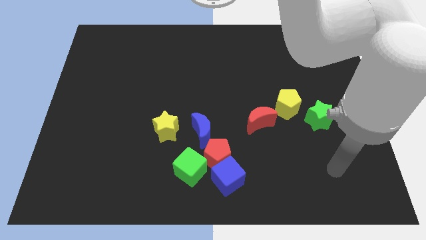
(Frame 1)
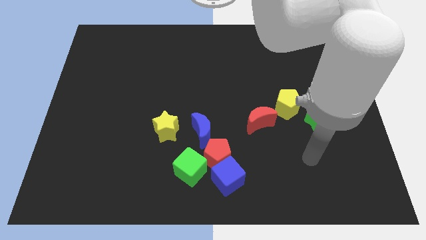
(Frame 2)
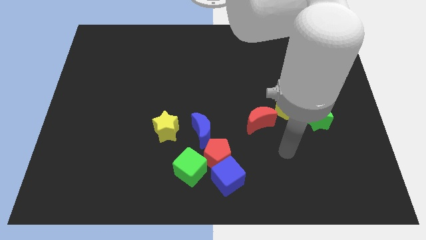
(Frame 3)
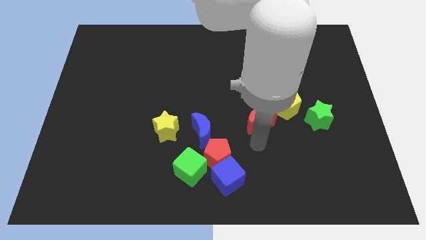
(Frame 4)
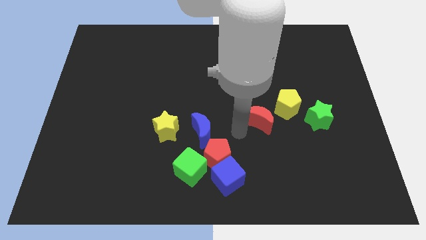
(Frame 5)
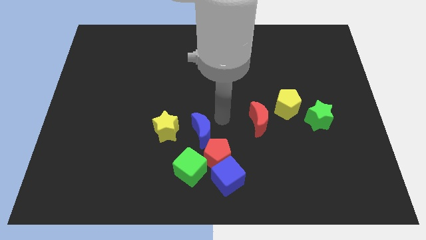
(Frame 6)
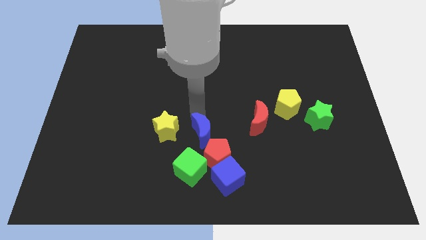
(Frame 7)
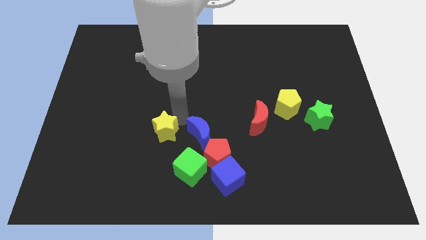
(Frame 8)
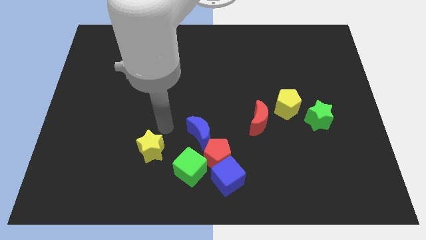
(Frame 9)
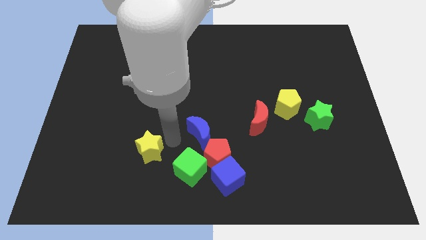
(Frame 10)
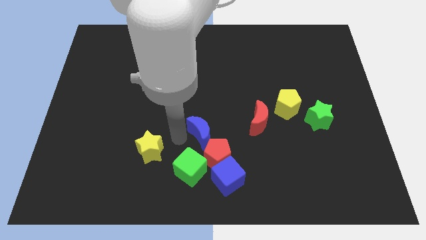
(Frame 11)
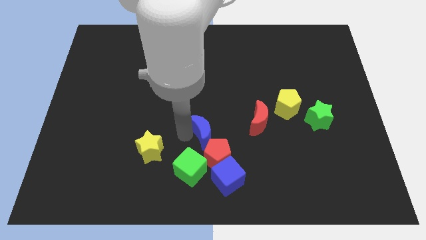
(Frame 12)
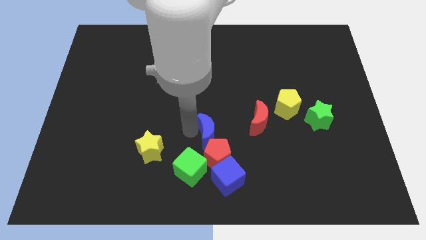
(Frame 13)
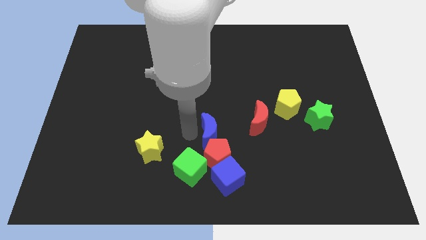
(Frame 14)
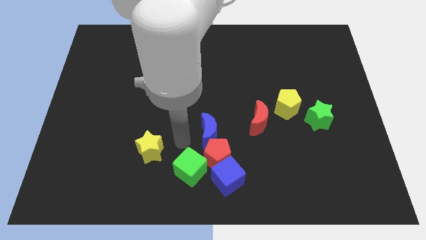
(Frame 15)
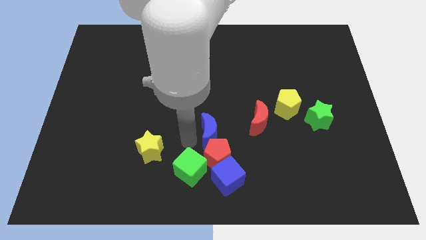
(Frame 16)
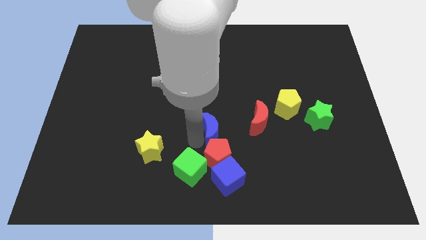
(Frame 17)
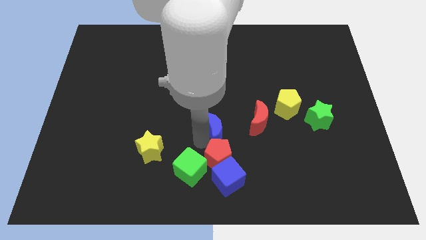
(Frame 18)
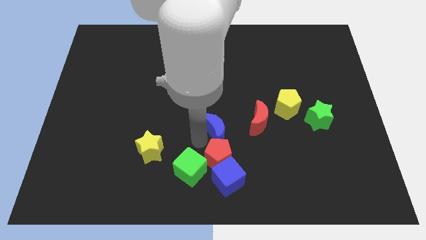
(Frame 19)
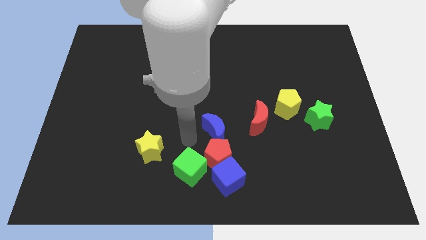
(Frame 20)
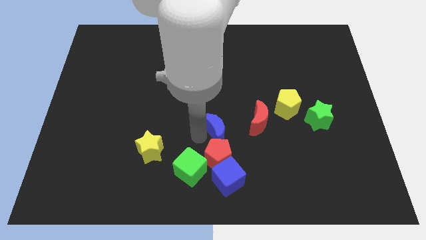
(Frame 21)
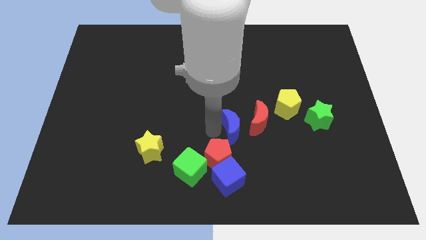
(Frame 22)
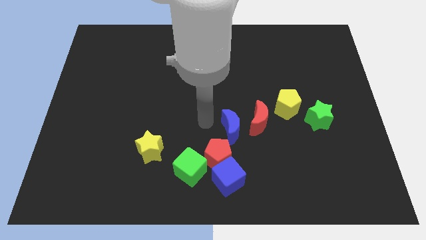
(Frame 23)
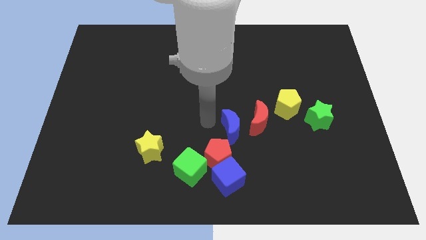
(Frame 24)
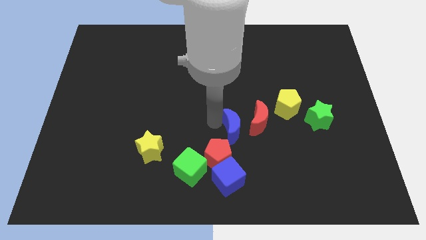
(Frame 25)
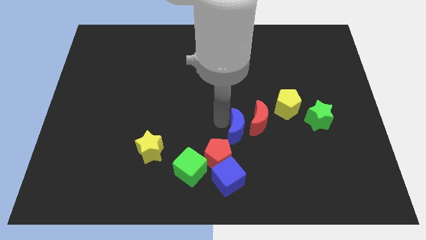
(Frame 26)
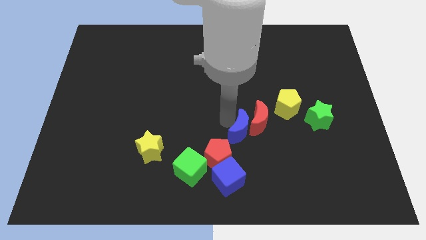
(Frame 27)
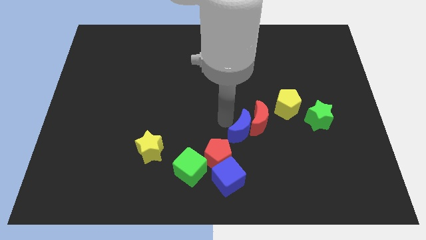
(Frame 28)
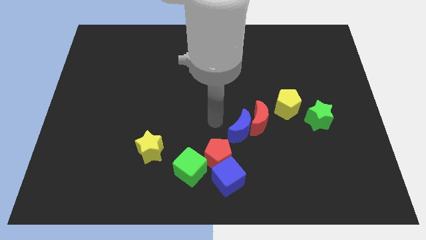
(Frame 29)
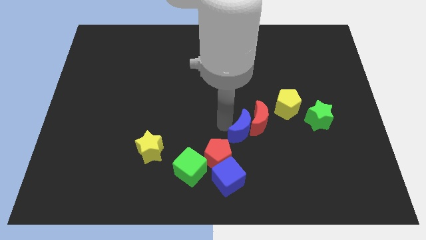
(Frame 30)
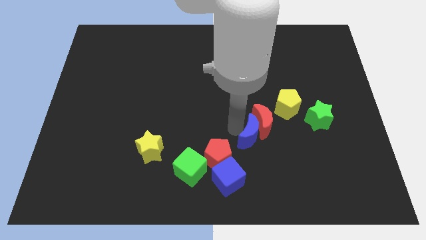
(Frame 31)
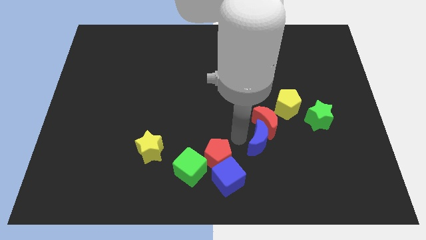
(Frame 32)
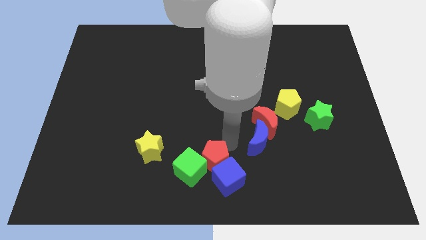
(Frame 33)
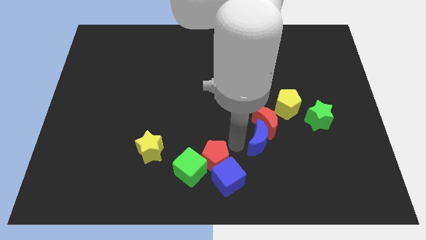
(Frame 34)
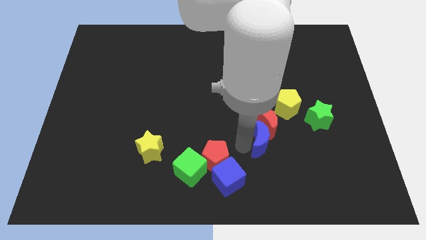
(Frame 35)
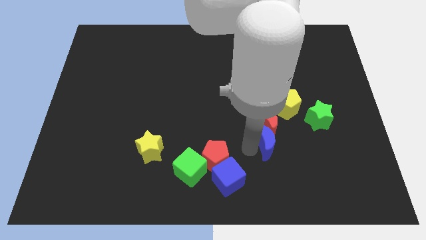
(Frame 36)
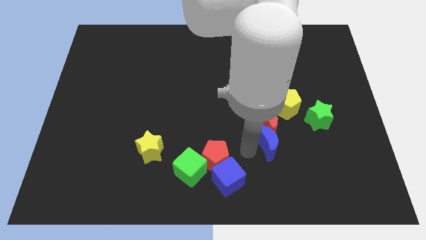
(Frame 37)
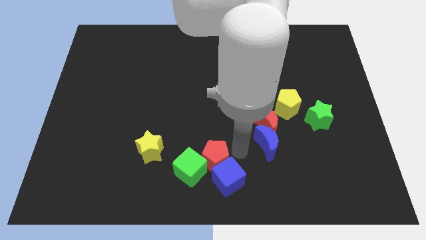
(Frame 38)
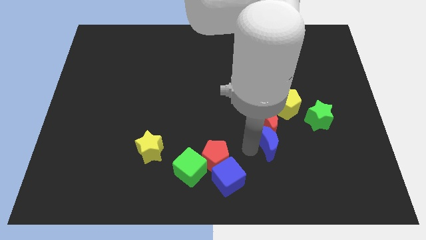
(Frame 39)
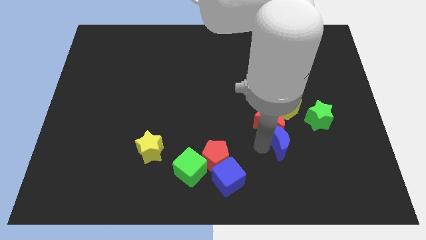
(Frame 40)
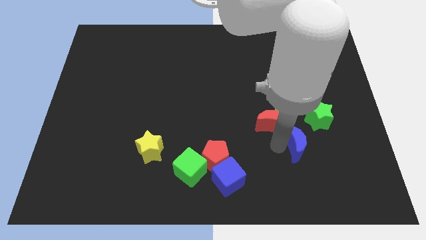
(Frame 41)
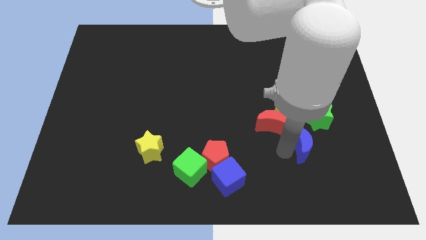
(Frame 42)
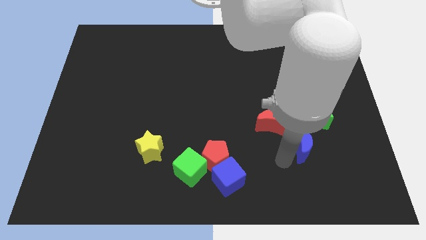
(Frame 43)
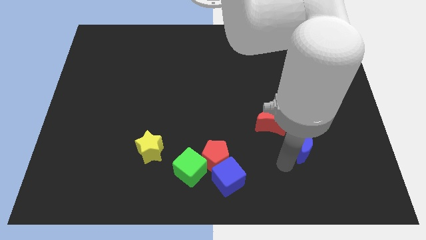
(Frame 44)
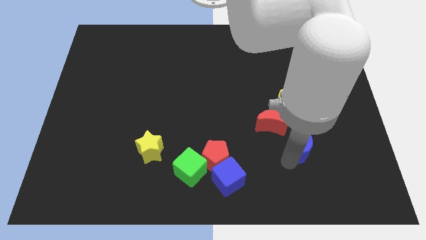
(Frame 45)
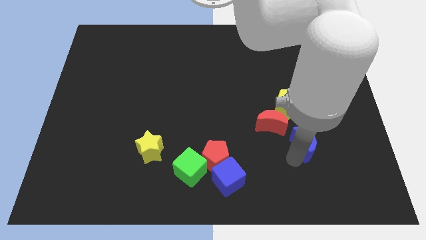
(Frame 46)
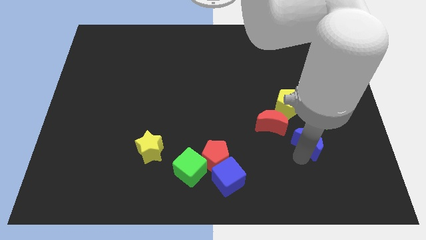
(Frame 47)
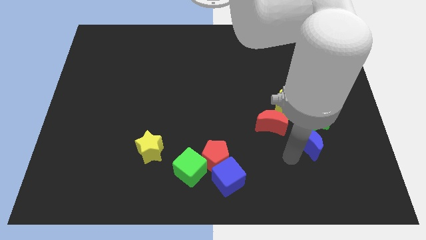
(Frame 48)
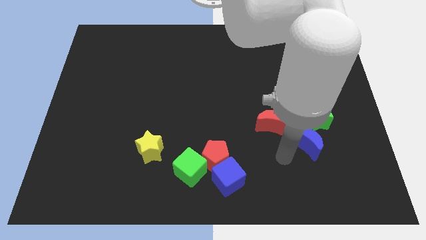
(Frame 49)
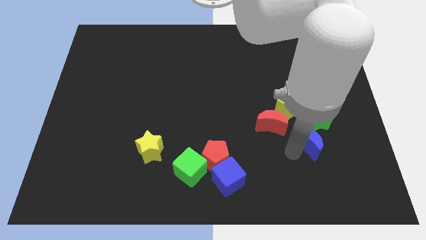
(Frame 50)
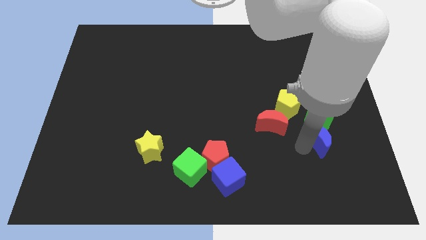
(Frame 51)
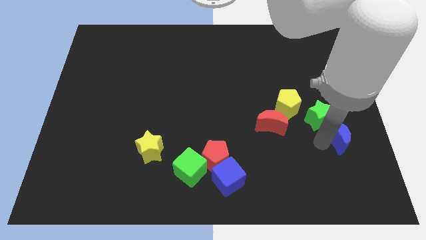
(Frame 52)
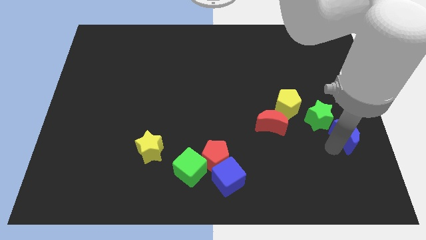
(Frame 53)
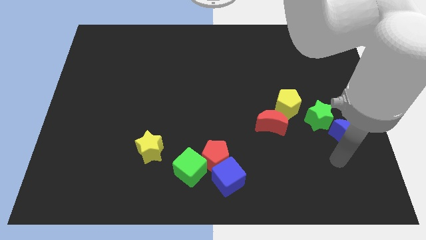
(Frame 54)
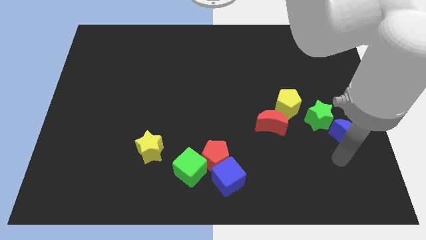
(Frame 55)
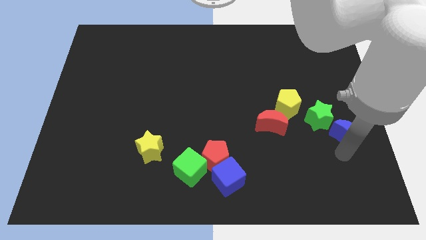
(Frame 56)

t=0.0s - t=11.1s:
put the blue moon to the center right

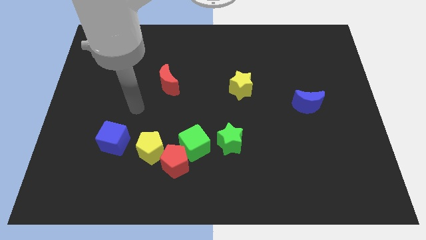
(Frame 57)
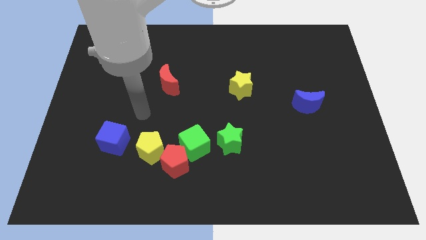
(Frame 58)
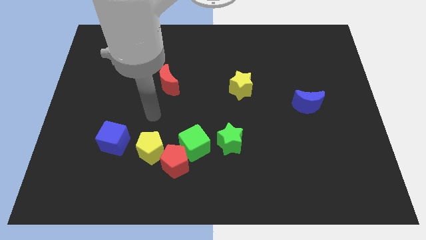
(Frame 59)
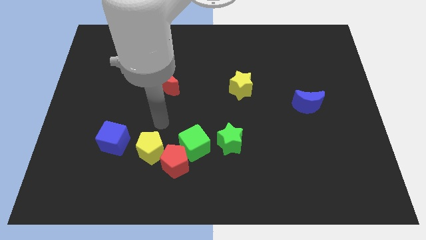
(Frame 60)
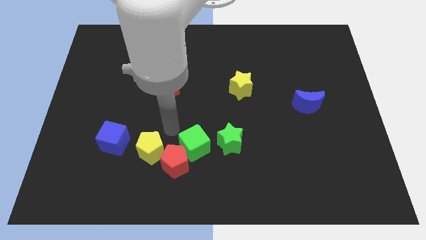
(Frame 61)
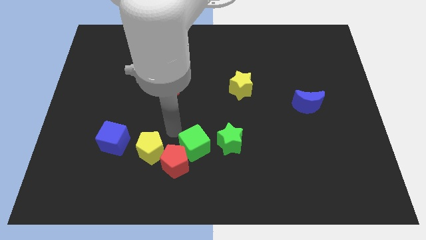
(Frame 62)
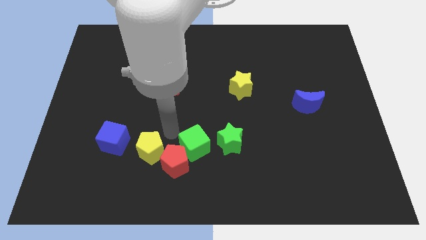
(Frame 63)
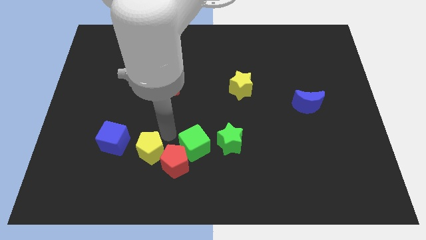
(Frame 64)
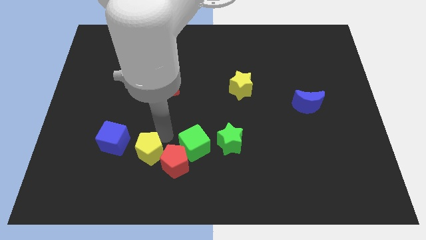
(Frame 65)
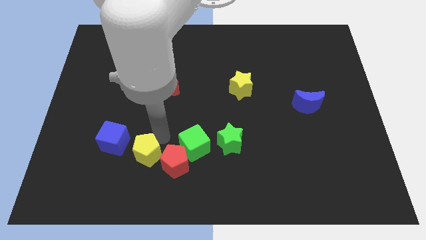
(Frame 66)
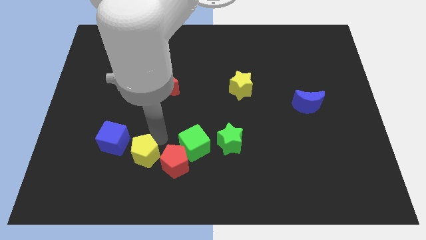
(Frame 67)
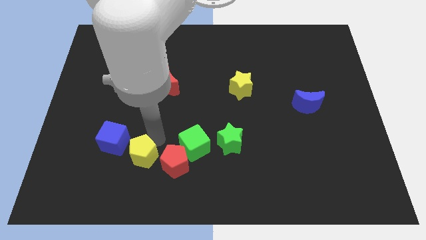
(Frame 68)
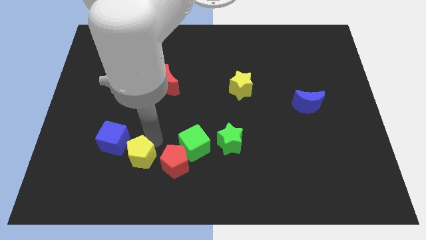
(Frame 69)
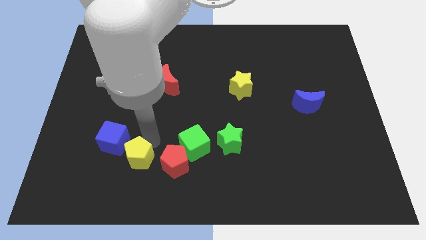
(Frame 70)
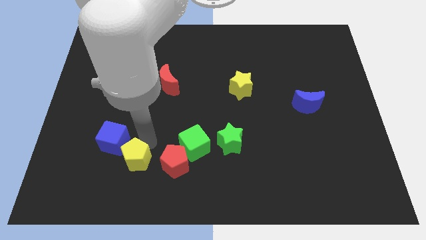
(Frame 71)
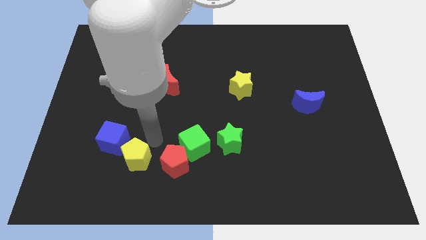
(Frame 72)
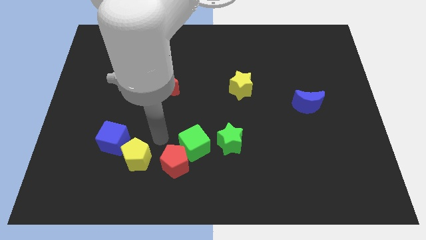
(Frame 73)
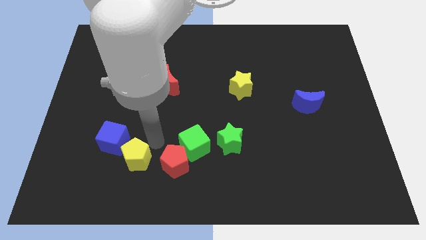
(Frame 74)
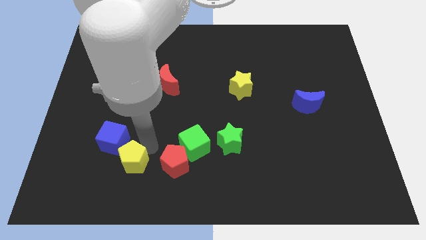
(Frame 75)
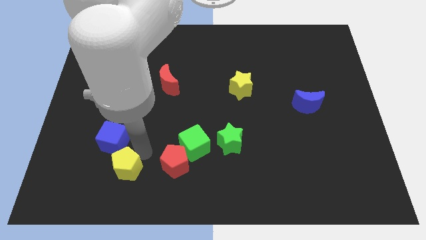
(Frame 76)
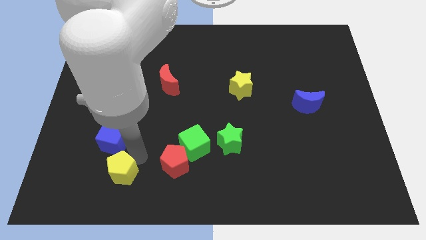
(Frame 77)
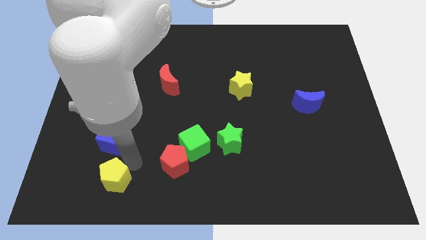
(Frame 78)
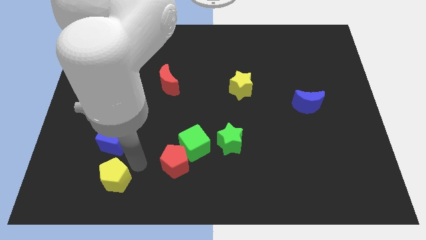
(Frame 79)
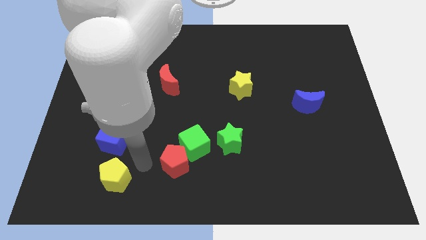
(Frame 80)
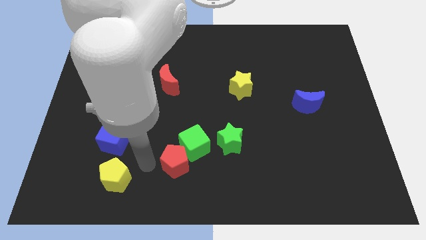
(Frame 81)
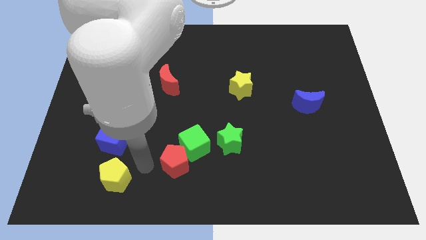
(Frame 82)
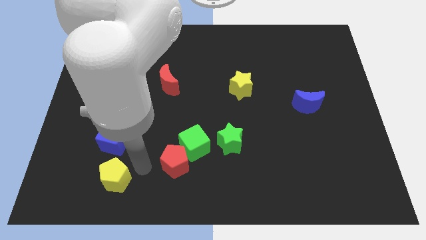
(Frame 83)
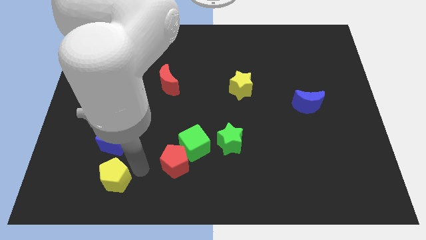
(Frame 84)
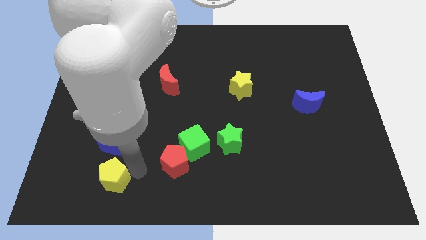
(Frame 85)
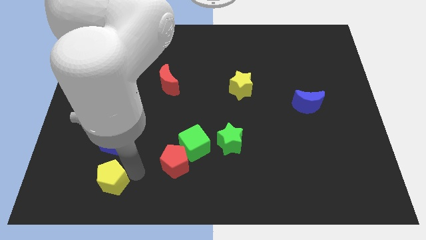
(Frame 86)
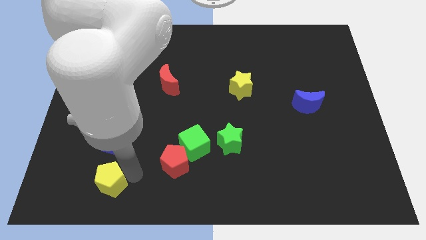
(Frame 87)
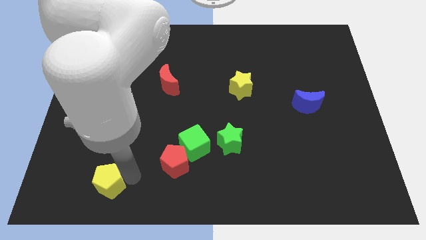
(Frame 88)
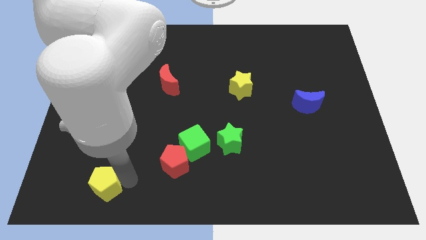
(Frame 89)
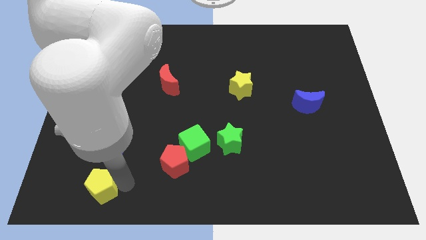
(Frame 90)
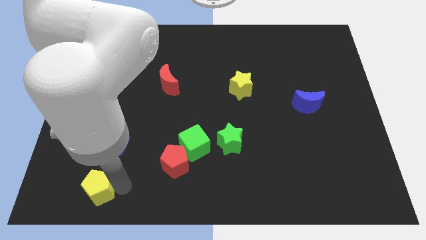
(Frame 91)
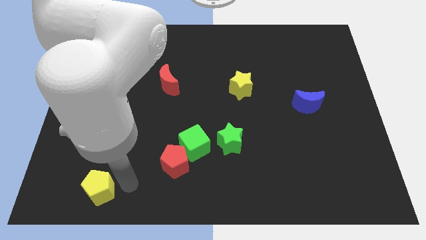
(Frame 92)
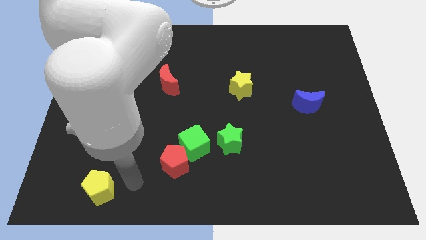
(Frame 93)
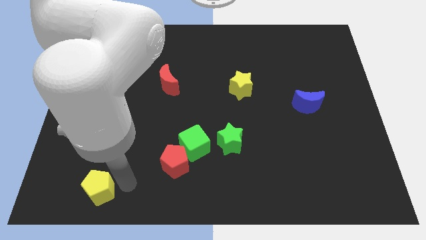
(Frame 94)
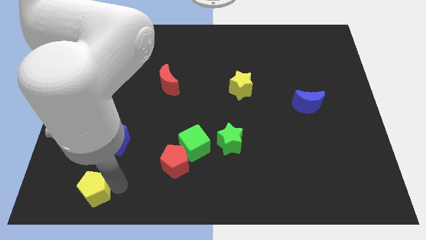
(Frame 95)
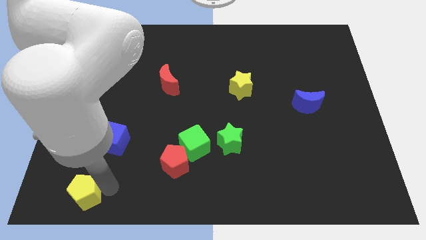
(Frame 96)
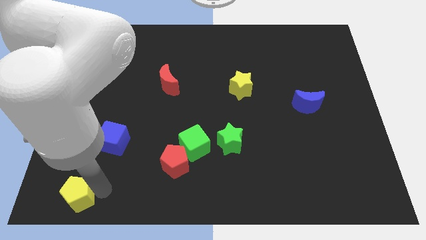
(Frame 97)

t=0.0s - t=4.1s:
put the yellow pentagon to the bottom left
